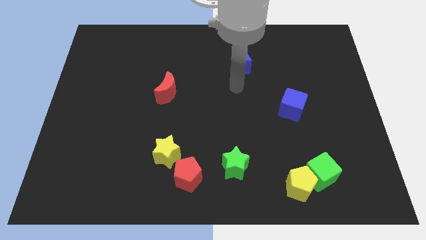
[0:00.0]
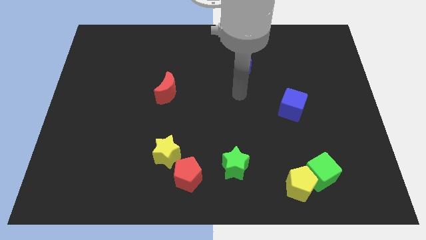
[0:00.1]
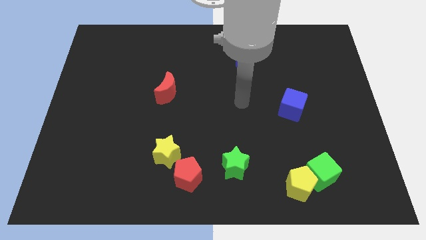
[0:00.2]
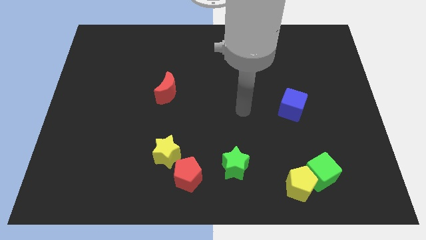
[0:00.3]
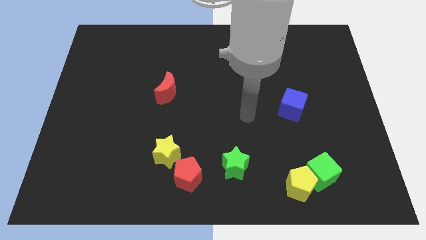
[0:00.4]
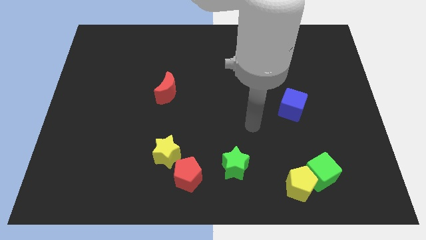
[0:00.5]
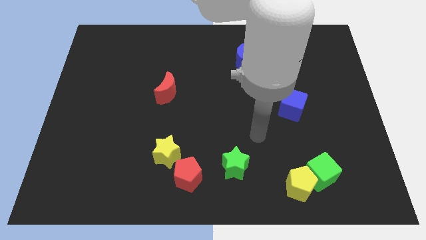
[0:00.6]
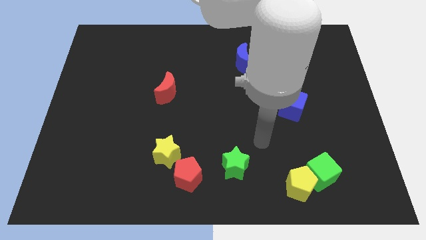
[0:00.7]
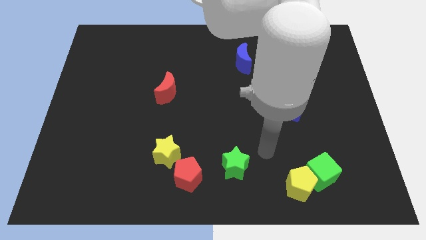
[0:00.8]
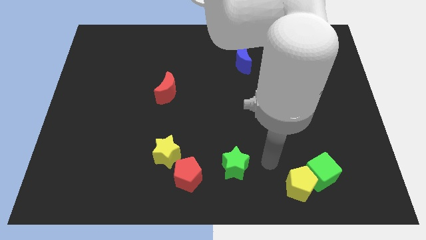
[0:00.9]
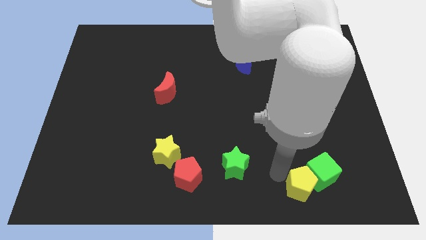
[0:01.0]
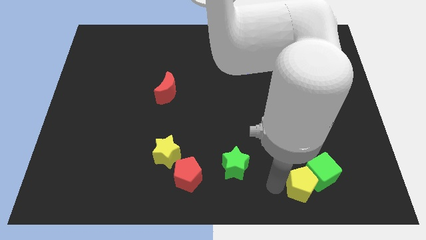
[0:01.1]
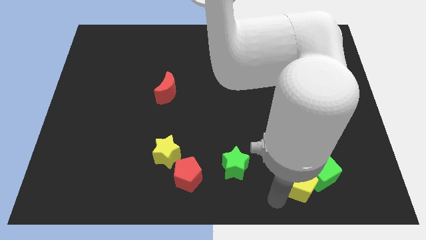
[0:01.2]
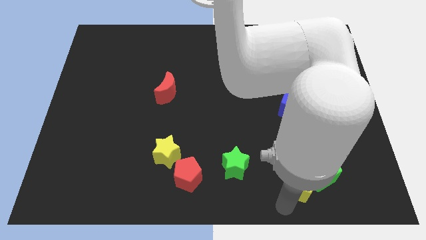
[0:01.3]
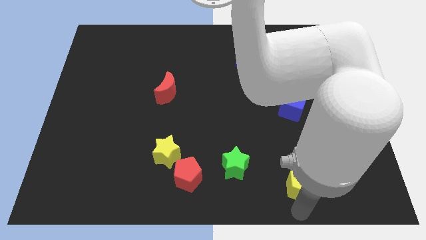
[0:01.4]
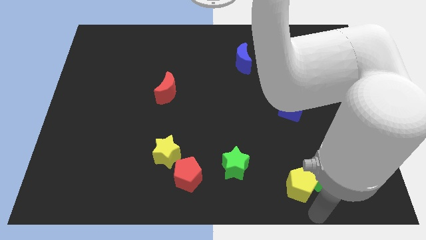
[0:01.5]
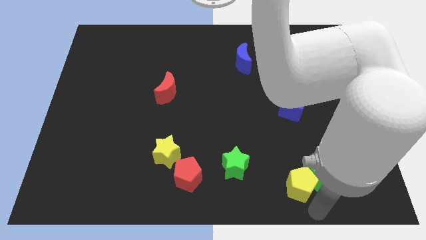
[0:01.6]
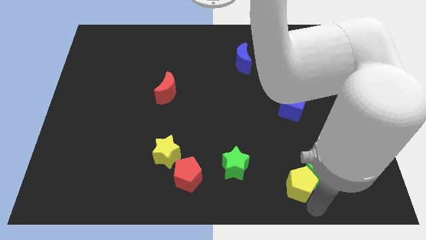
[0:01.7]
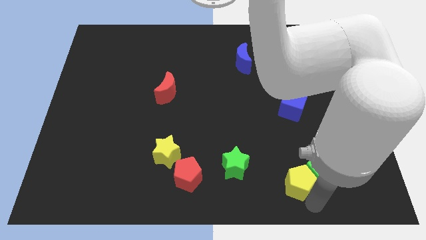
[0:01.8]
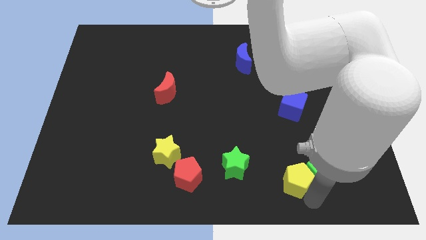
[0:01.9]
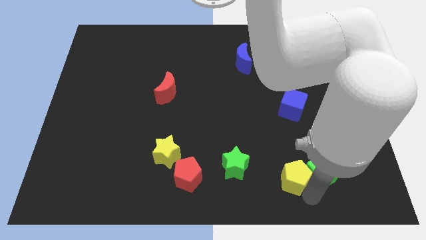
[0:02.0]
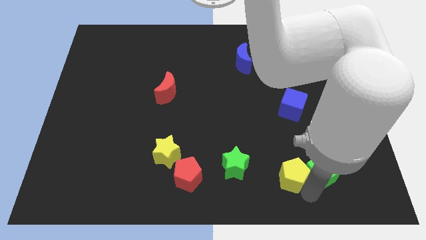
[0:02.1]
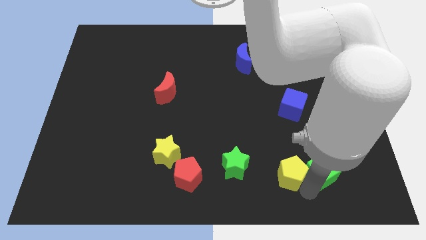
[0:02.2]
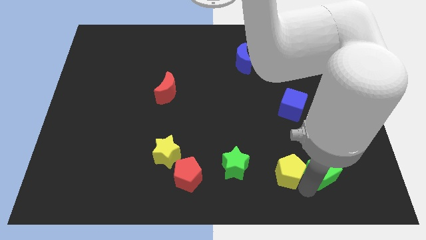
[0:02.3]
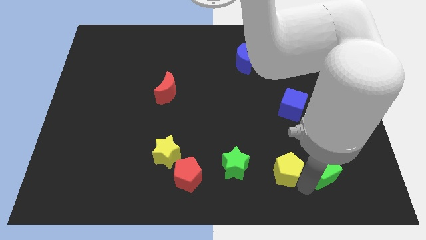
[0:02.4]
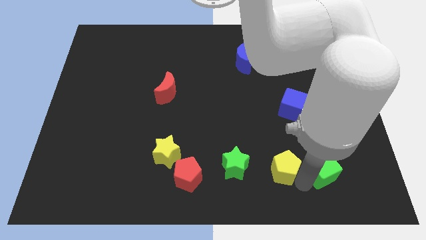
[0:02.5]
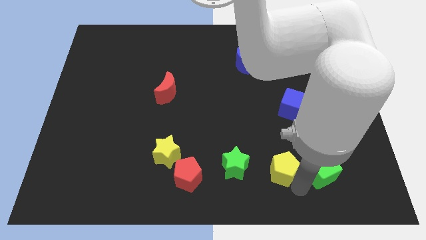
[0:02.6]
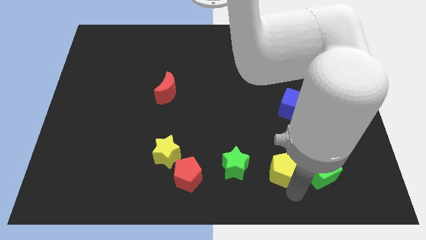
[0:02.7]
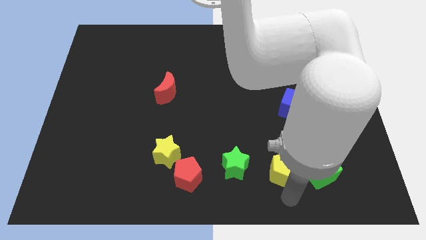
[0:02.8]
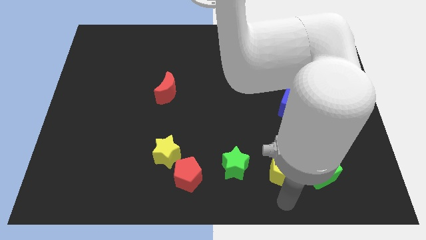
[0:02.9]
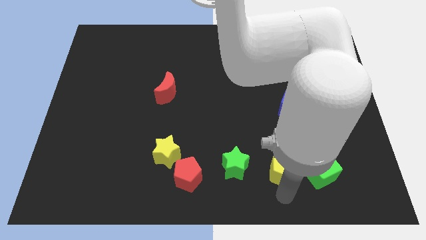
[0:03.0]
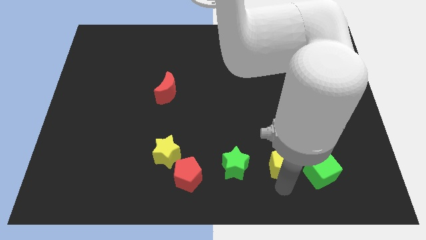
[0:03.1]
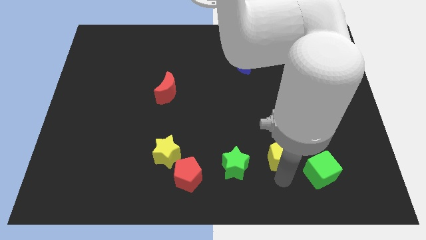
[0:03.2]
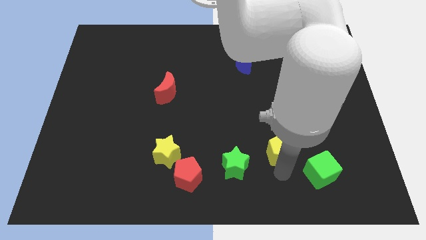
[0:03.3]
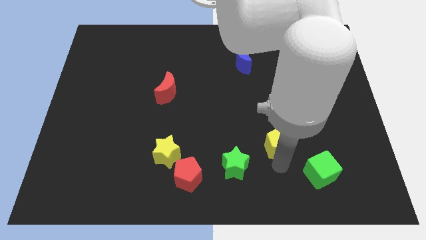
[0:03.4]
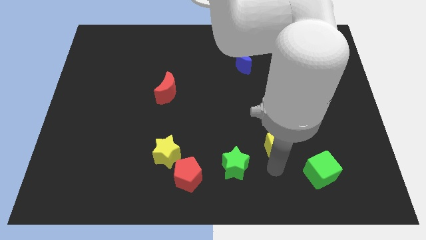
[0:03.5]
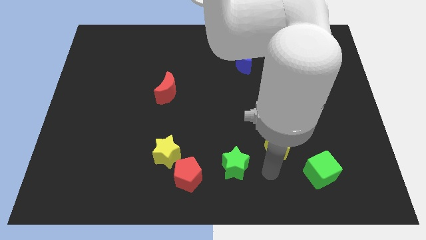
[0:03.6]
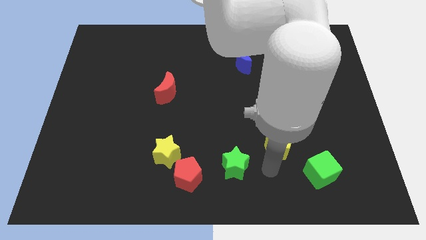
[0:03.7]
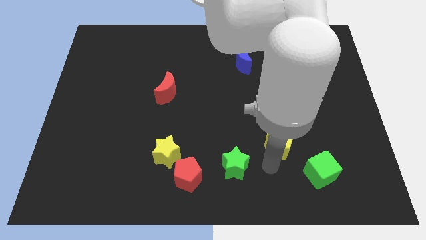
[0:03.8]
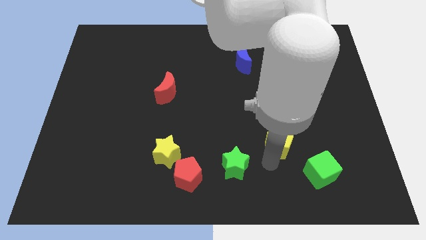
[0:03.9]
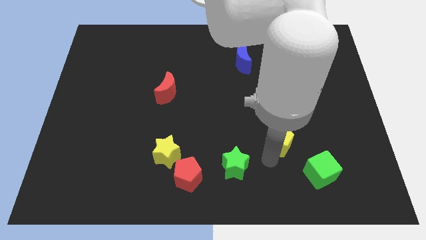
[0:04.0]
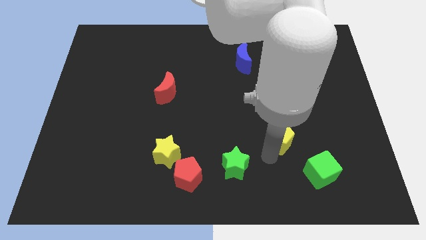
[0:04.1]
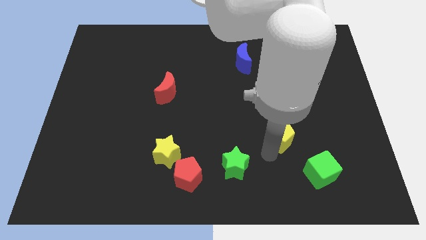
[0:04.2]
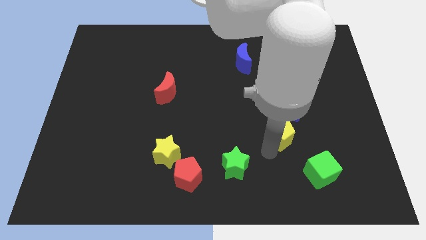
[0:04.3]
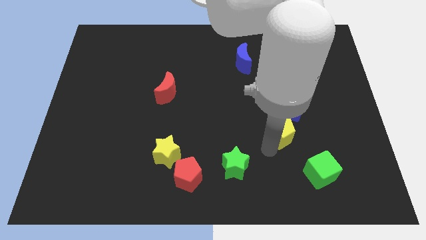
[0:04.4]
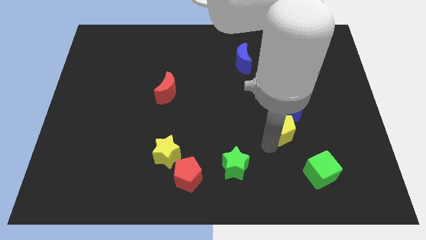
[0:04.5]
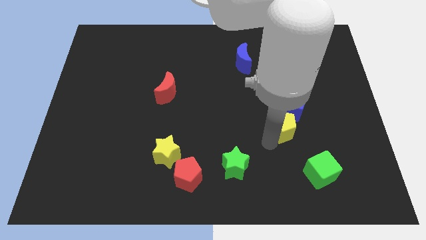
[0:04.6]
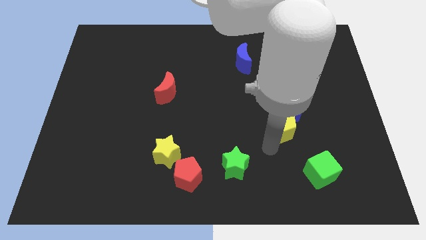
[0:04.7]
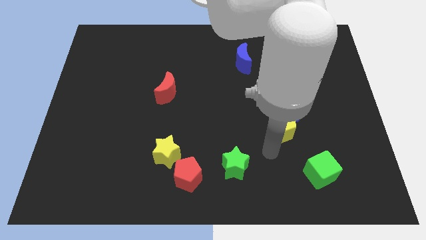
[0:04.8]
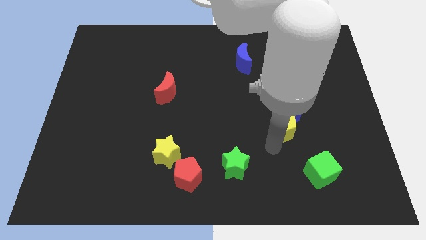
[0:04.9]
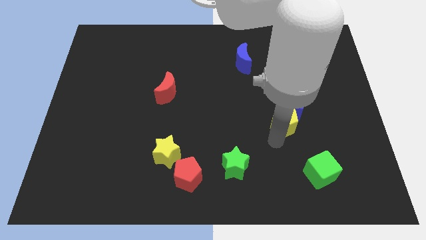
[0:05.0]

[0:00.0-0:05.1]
slide the yellow pentagon close to the blue cube

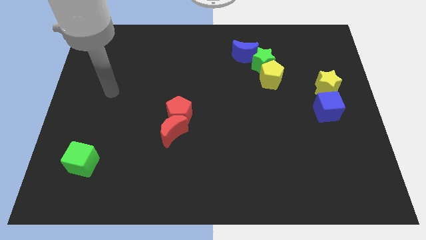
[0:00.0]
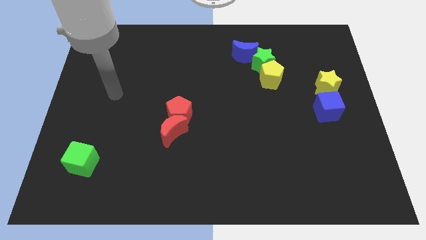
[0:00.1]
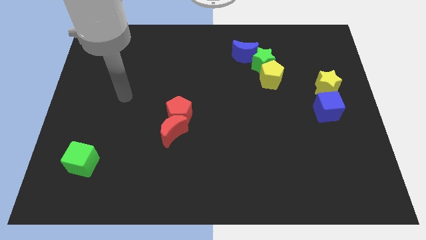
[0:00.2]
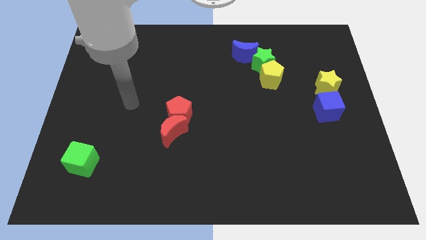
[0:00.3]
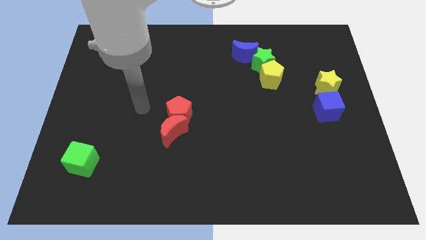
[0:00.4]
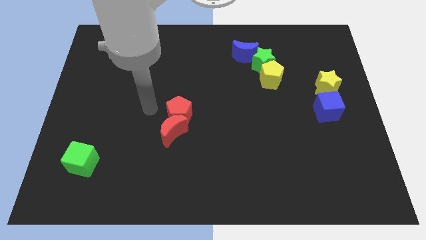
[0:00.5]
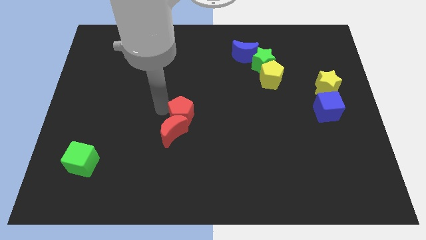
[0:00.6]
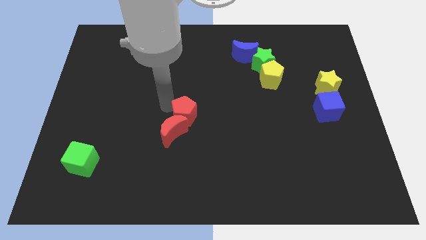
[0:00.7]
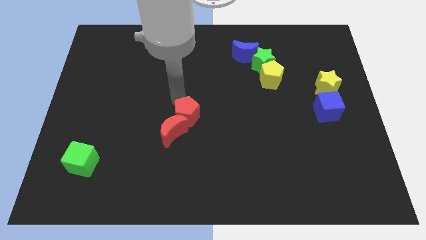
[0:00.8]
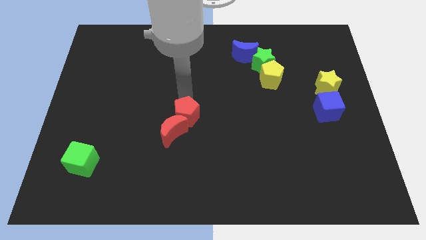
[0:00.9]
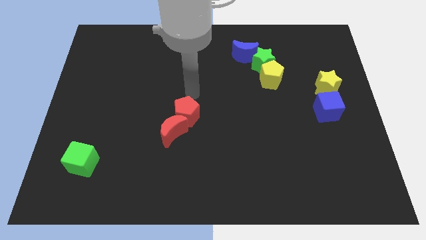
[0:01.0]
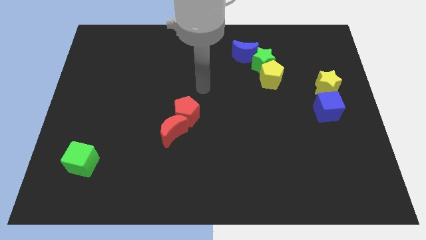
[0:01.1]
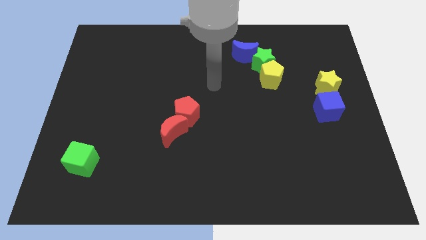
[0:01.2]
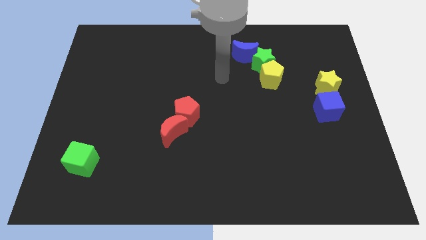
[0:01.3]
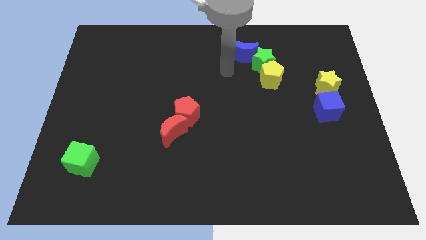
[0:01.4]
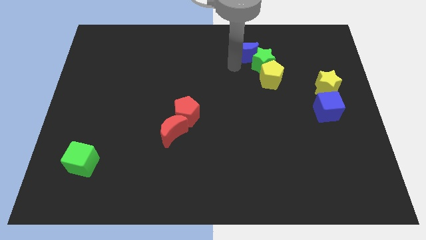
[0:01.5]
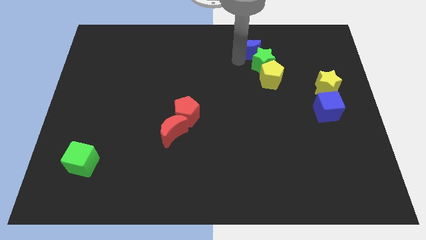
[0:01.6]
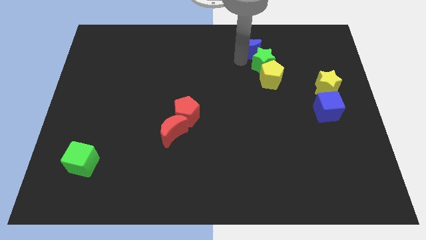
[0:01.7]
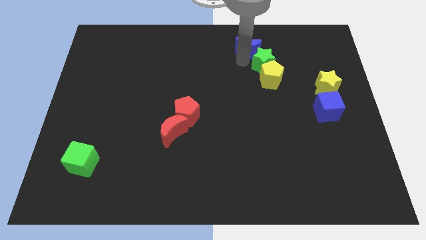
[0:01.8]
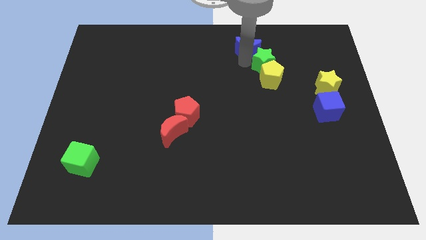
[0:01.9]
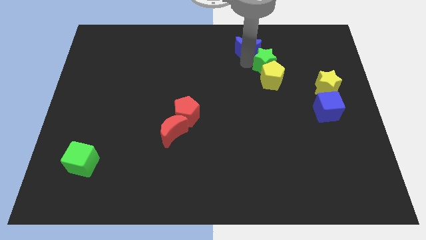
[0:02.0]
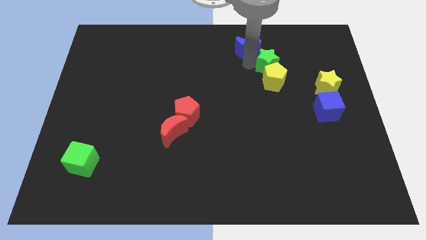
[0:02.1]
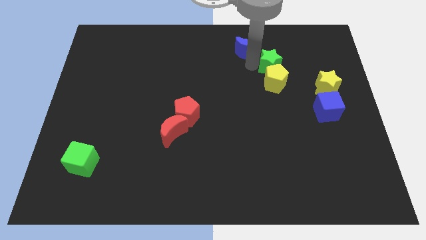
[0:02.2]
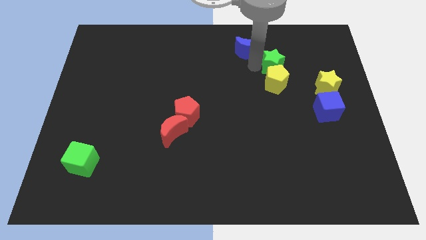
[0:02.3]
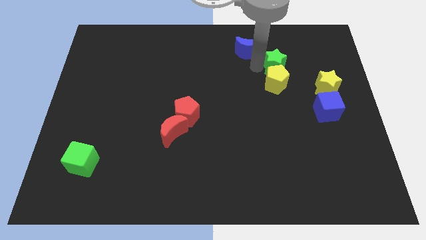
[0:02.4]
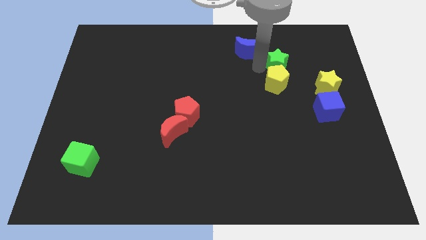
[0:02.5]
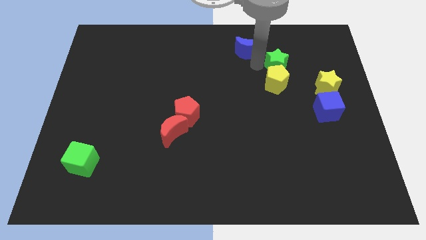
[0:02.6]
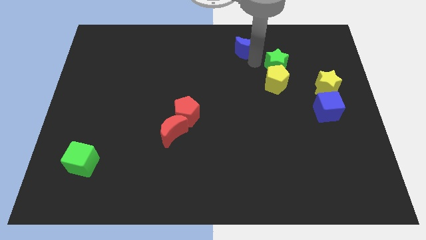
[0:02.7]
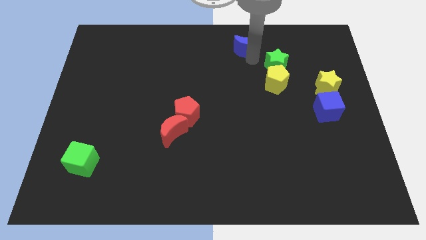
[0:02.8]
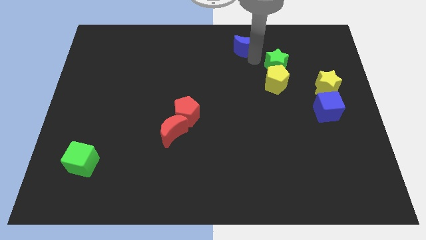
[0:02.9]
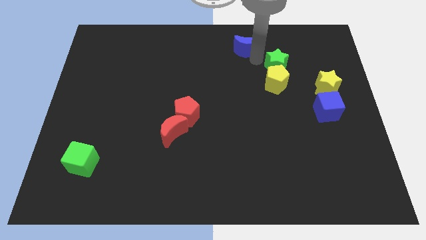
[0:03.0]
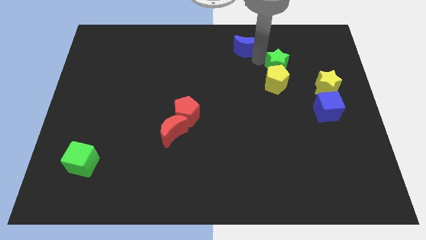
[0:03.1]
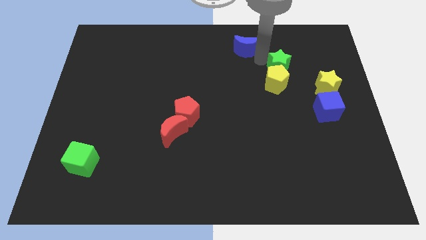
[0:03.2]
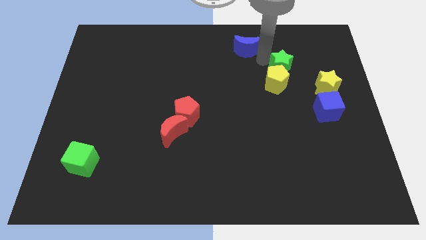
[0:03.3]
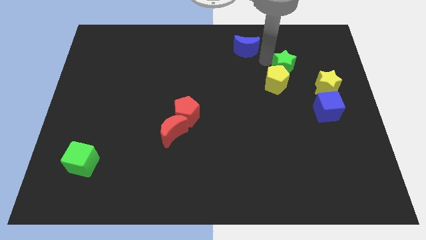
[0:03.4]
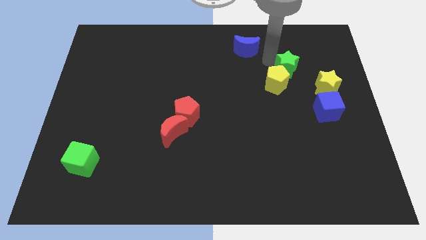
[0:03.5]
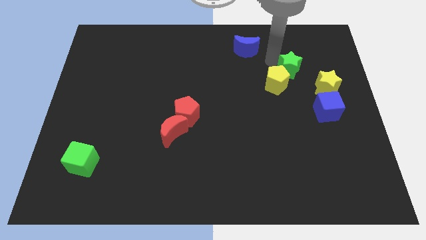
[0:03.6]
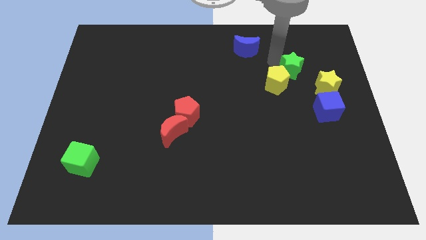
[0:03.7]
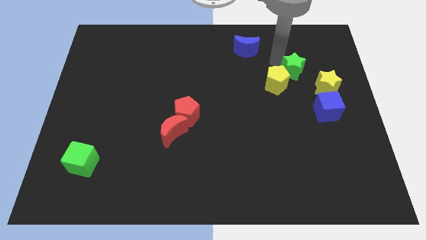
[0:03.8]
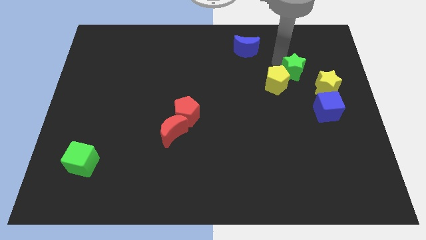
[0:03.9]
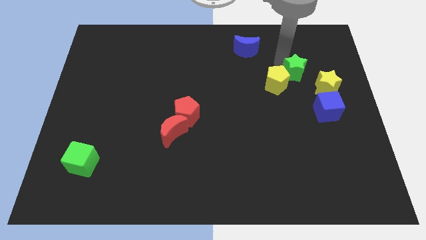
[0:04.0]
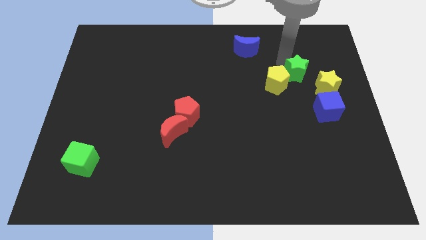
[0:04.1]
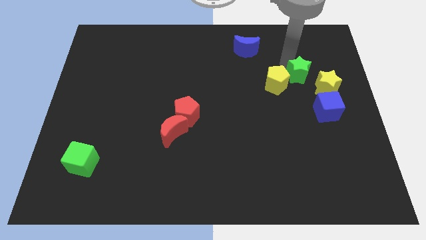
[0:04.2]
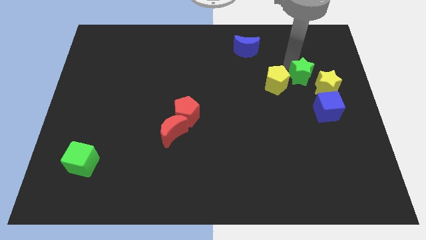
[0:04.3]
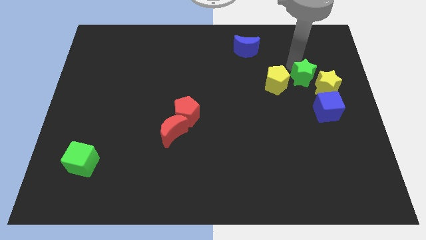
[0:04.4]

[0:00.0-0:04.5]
slide the green star towards the yellow star
